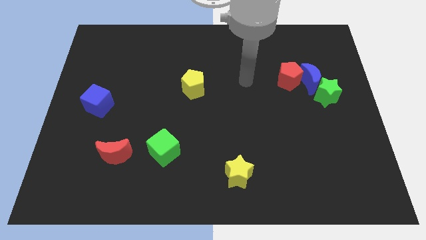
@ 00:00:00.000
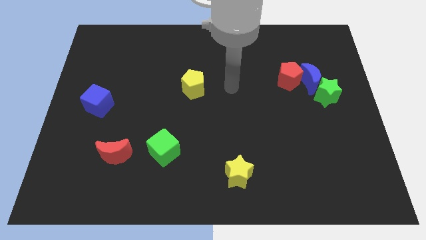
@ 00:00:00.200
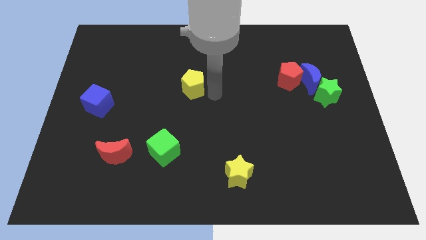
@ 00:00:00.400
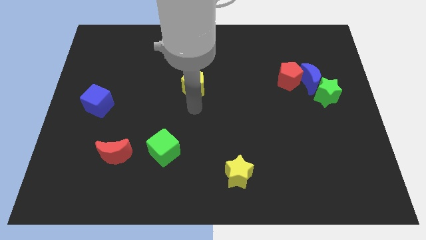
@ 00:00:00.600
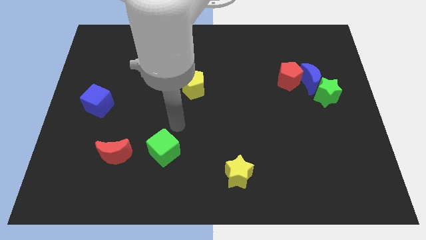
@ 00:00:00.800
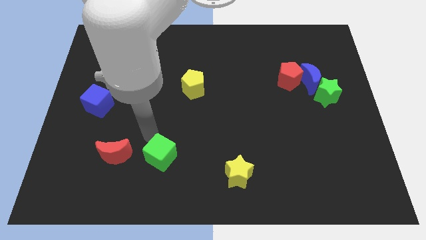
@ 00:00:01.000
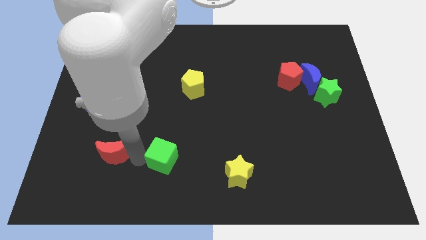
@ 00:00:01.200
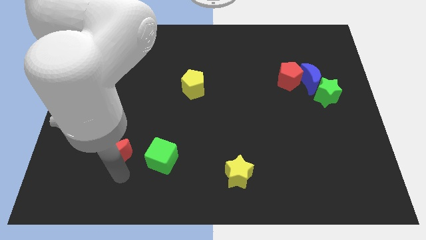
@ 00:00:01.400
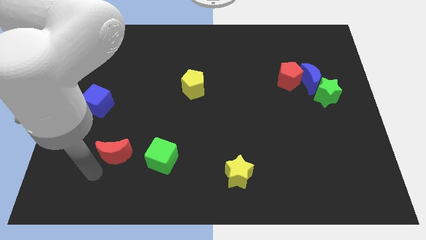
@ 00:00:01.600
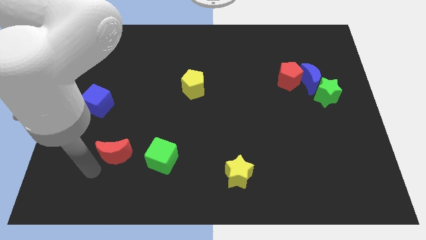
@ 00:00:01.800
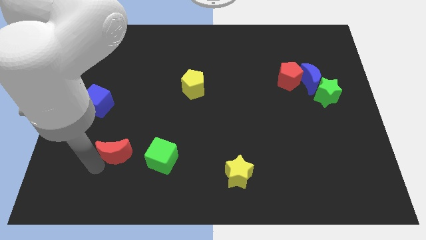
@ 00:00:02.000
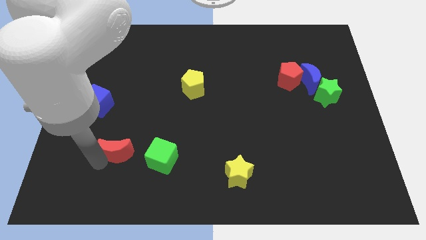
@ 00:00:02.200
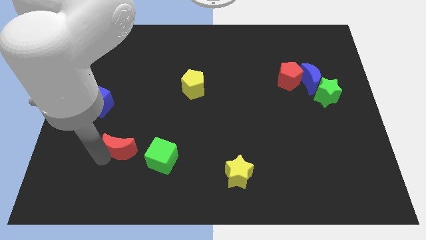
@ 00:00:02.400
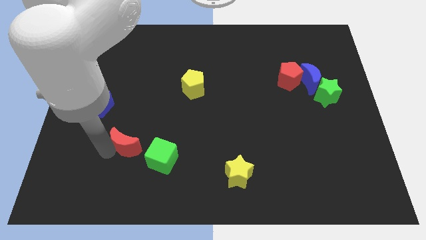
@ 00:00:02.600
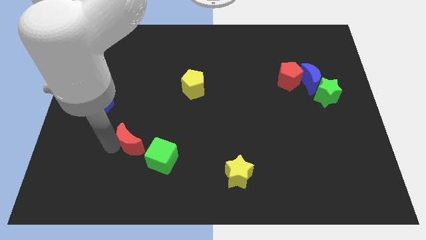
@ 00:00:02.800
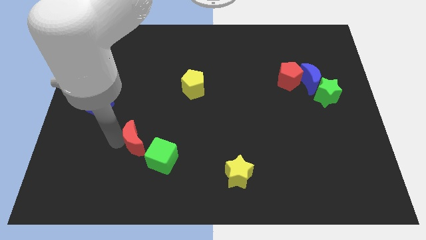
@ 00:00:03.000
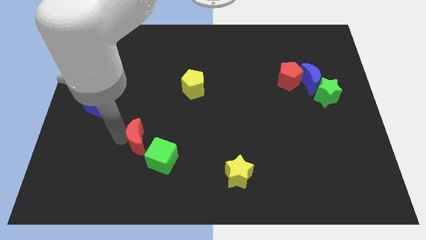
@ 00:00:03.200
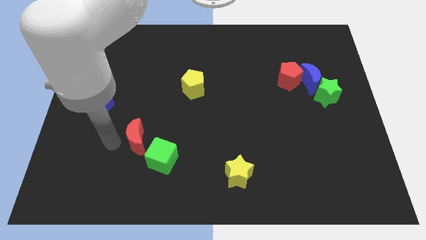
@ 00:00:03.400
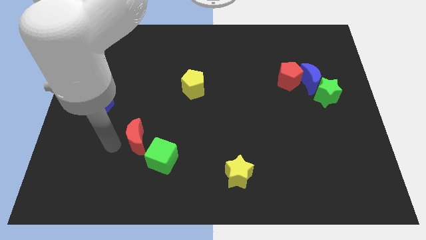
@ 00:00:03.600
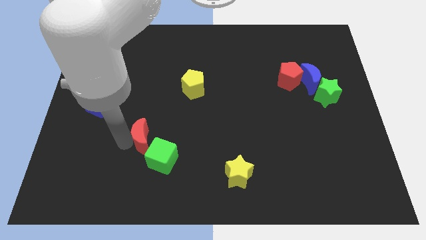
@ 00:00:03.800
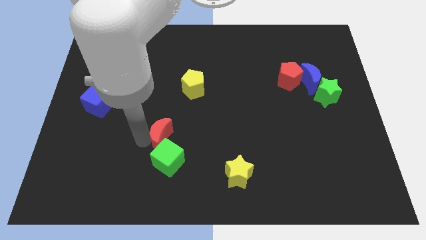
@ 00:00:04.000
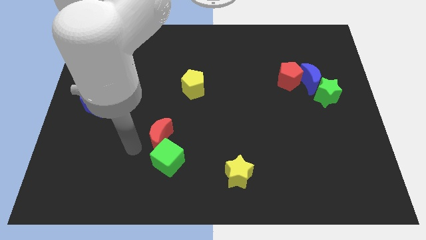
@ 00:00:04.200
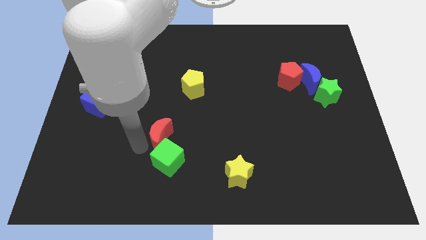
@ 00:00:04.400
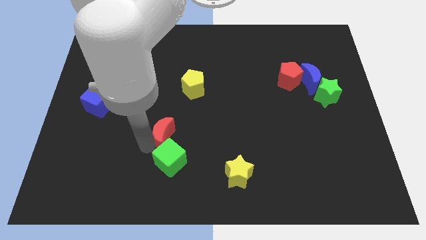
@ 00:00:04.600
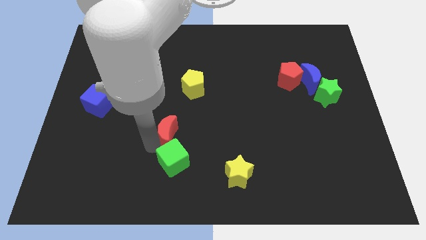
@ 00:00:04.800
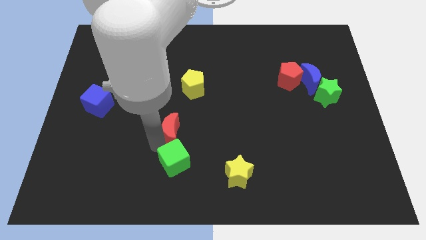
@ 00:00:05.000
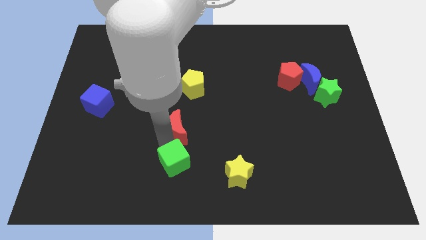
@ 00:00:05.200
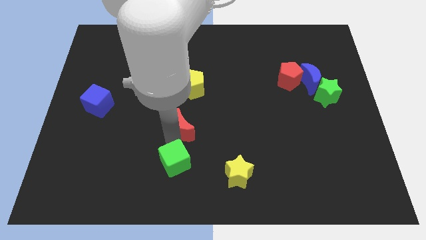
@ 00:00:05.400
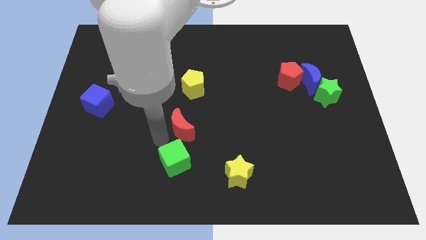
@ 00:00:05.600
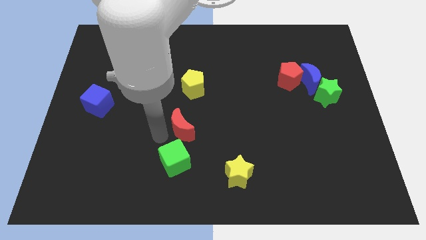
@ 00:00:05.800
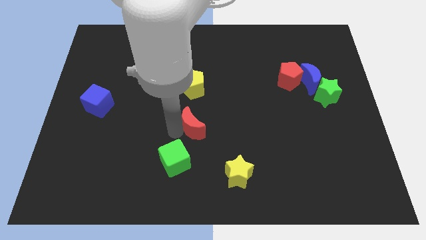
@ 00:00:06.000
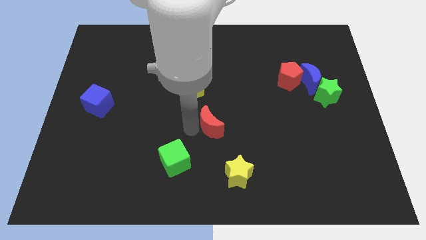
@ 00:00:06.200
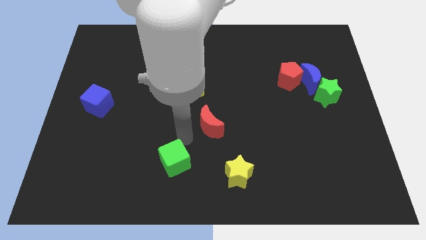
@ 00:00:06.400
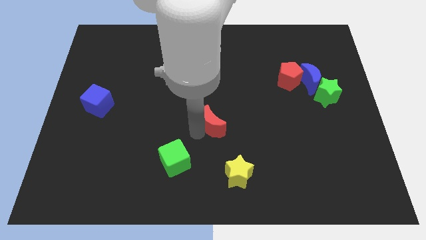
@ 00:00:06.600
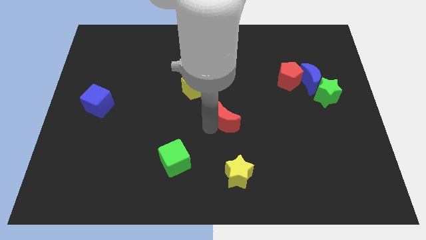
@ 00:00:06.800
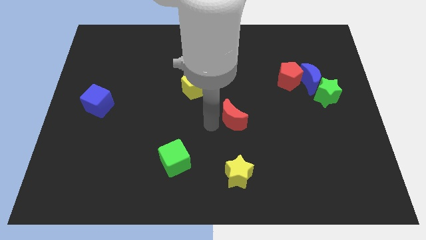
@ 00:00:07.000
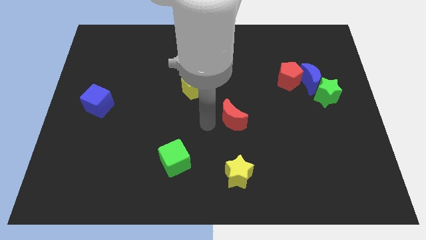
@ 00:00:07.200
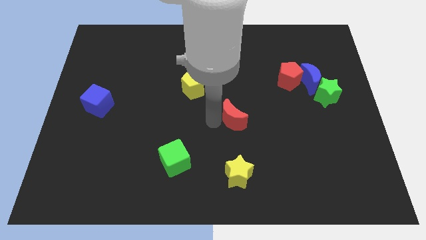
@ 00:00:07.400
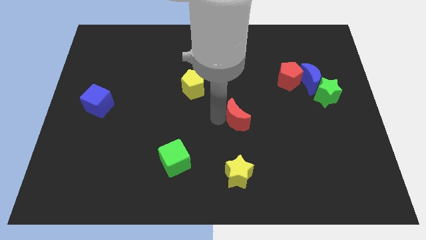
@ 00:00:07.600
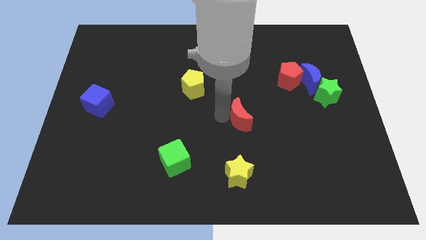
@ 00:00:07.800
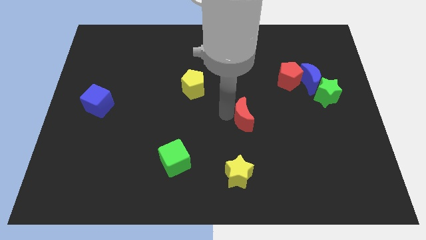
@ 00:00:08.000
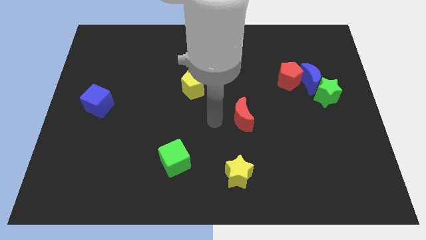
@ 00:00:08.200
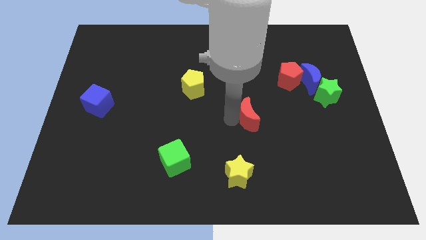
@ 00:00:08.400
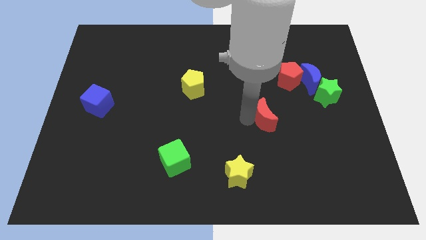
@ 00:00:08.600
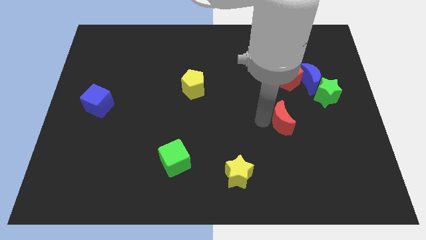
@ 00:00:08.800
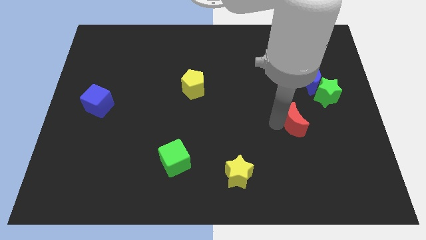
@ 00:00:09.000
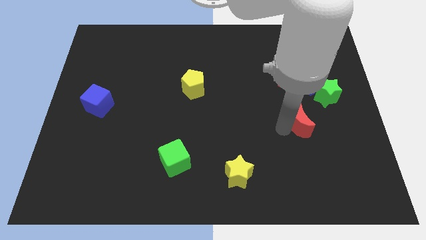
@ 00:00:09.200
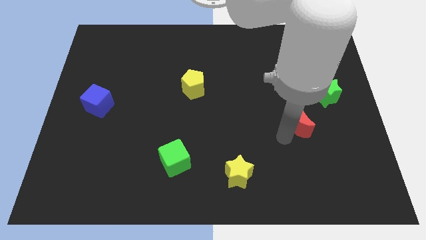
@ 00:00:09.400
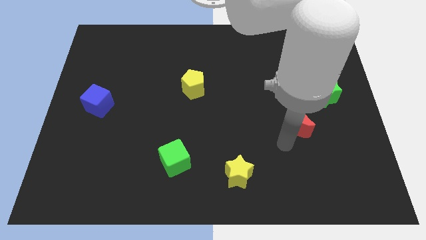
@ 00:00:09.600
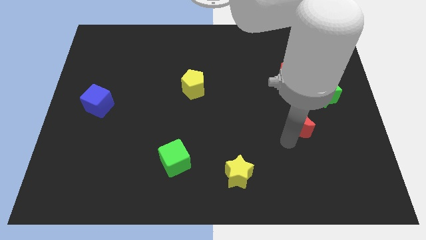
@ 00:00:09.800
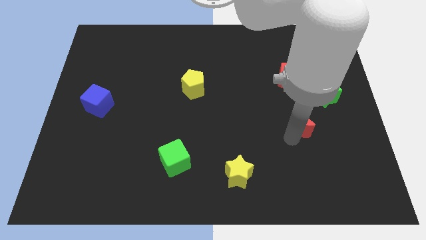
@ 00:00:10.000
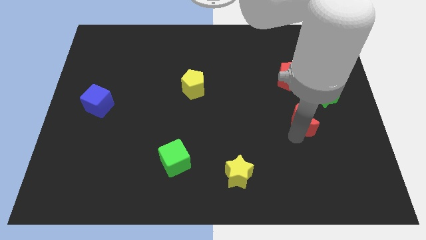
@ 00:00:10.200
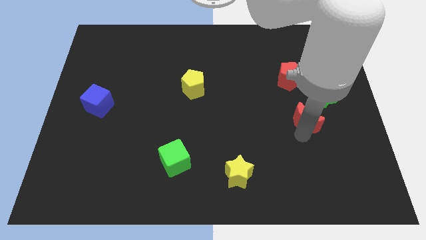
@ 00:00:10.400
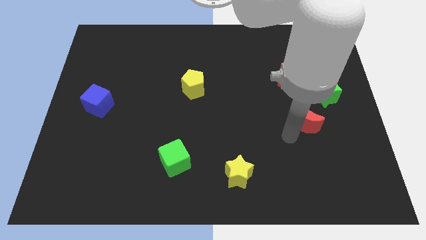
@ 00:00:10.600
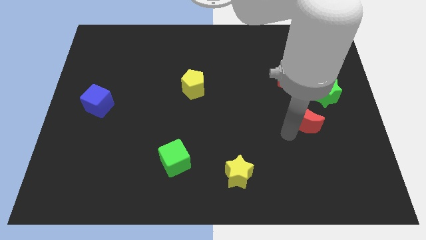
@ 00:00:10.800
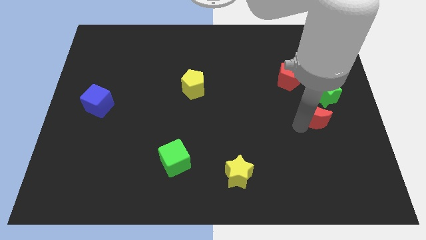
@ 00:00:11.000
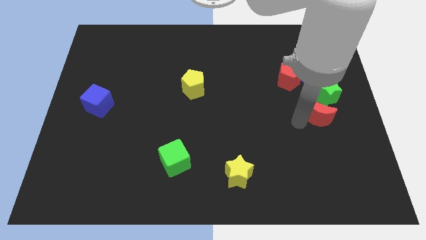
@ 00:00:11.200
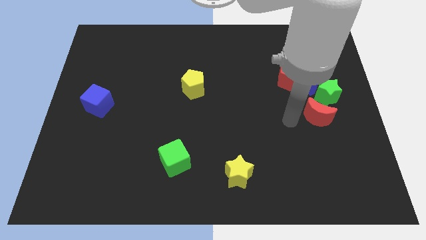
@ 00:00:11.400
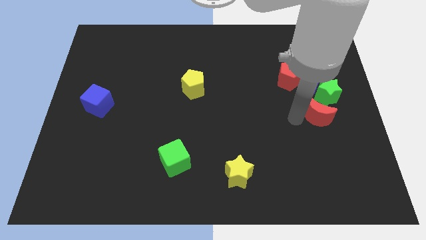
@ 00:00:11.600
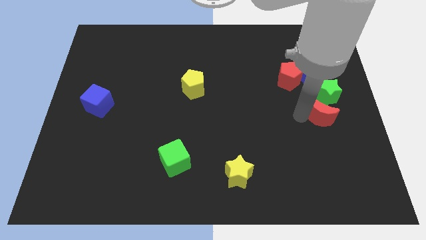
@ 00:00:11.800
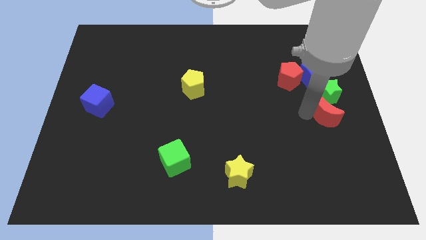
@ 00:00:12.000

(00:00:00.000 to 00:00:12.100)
push the red moon to the right side of the board

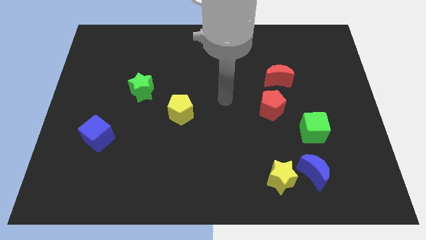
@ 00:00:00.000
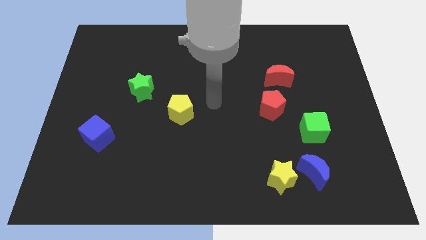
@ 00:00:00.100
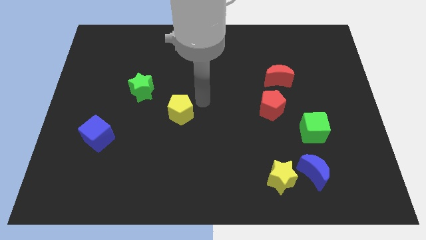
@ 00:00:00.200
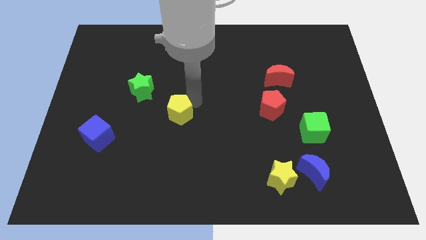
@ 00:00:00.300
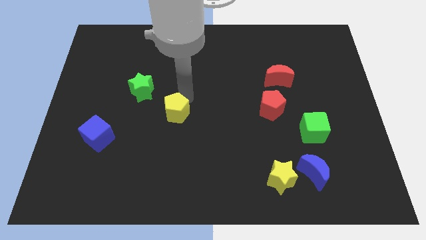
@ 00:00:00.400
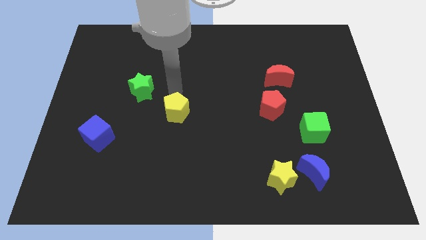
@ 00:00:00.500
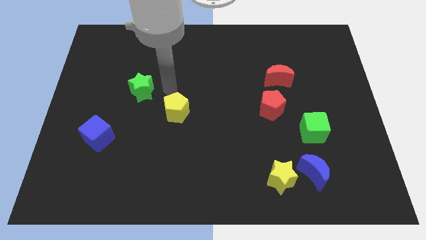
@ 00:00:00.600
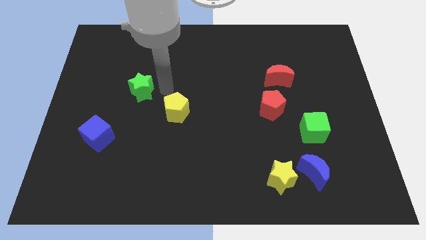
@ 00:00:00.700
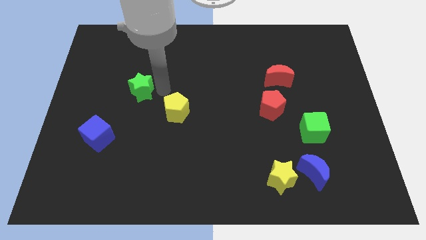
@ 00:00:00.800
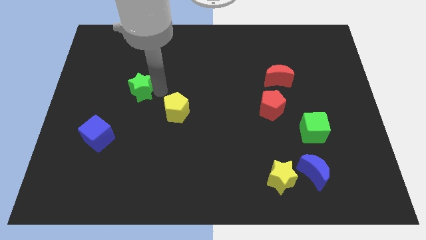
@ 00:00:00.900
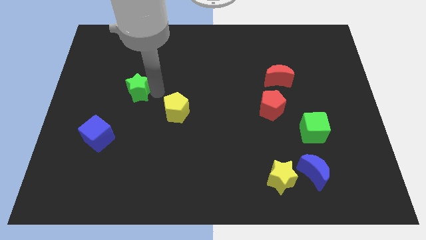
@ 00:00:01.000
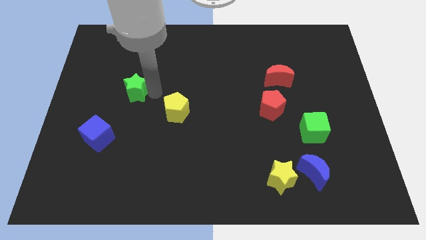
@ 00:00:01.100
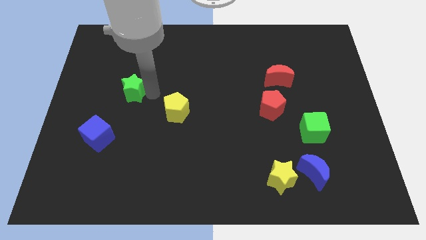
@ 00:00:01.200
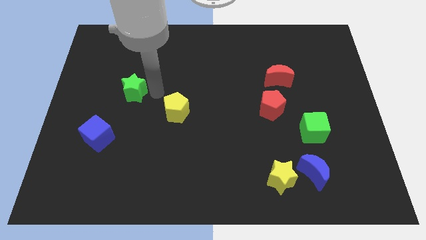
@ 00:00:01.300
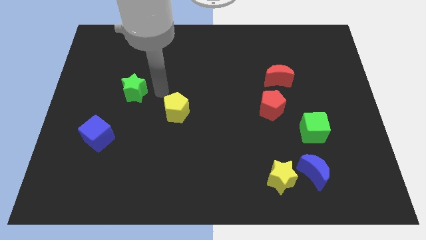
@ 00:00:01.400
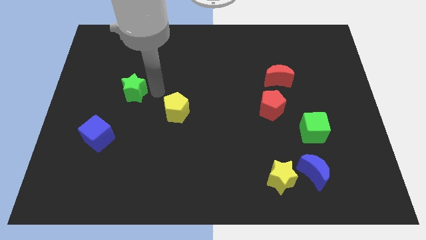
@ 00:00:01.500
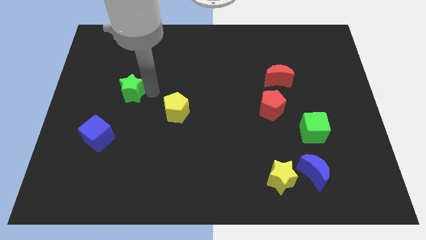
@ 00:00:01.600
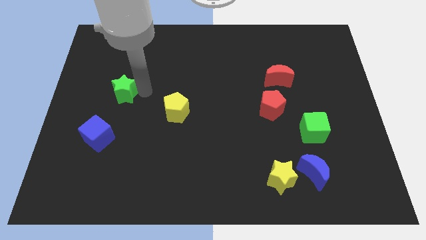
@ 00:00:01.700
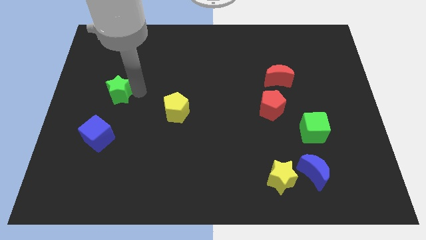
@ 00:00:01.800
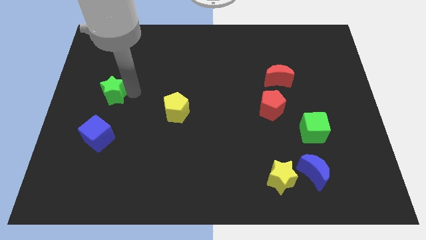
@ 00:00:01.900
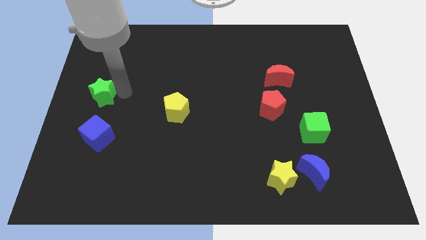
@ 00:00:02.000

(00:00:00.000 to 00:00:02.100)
push the green star to the left side of the board
